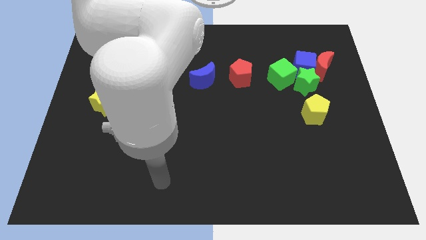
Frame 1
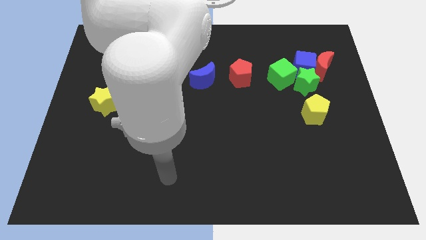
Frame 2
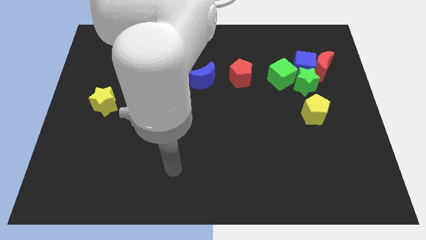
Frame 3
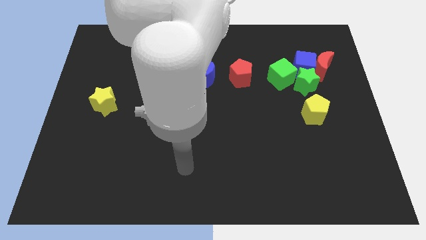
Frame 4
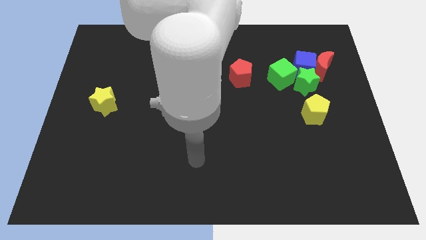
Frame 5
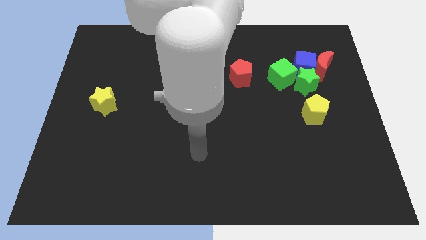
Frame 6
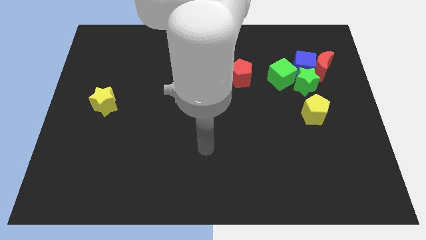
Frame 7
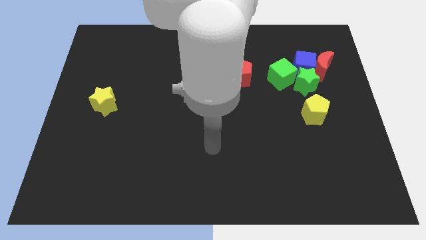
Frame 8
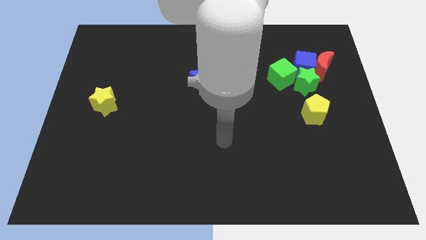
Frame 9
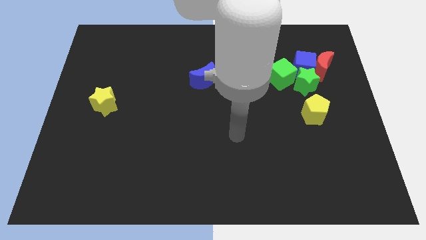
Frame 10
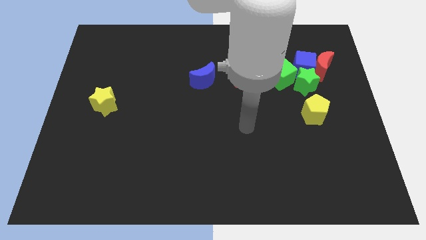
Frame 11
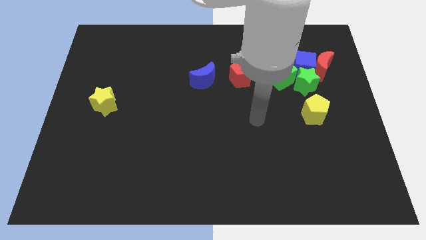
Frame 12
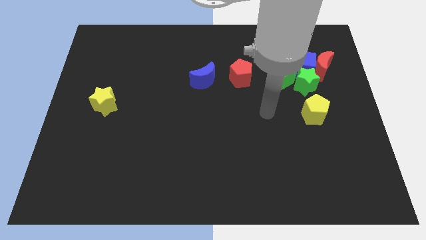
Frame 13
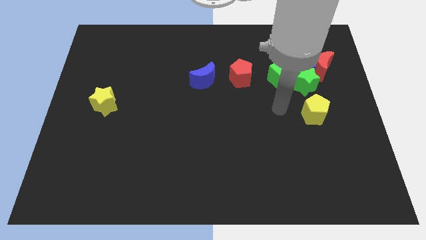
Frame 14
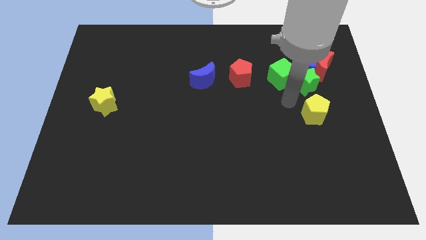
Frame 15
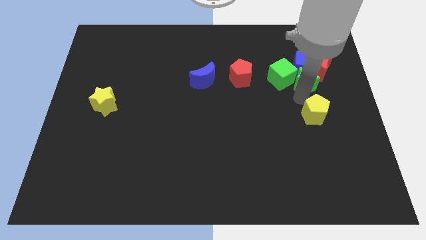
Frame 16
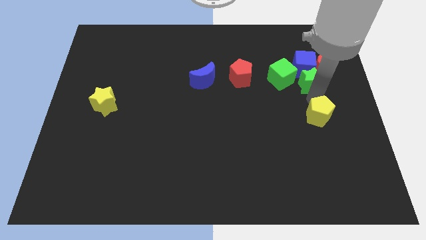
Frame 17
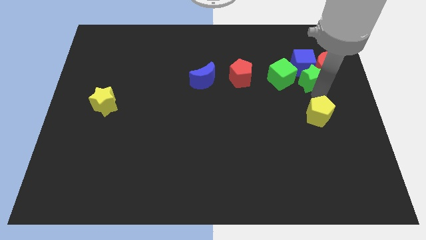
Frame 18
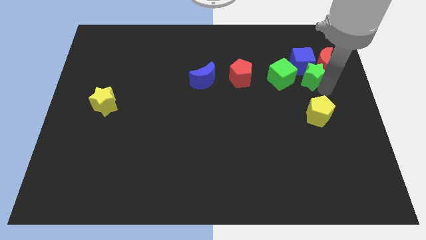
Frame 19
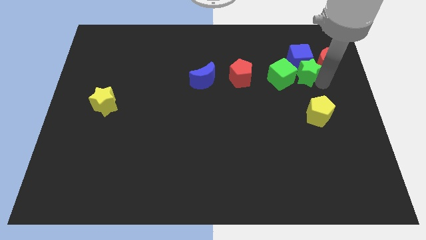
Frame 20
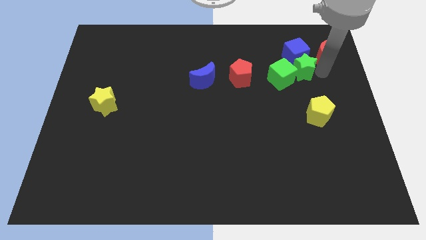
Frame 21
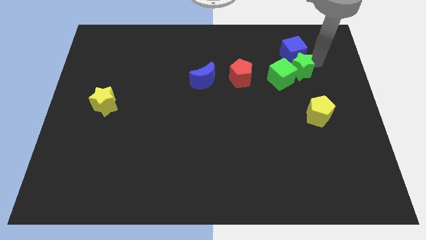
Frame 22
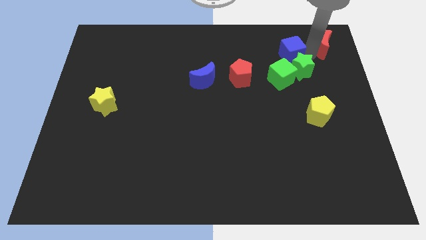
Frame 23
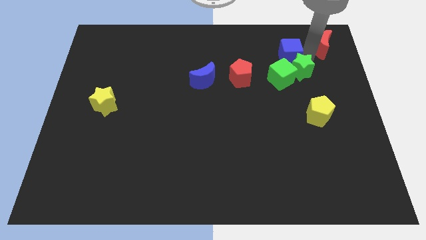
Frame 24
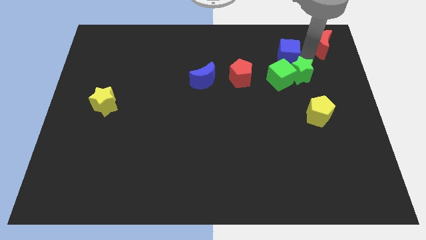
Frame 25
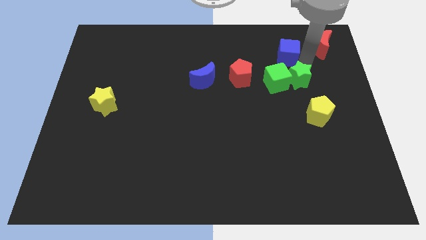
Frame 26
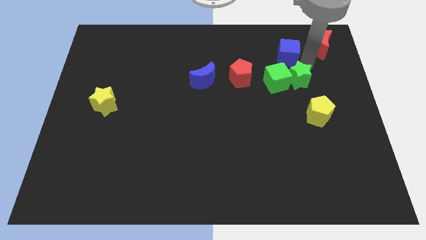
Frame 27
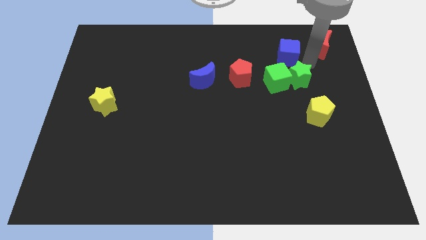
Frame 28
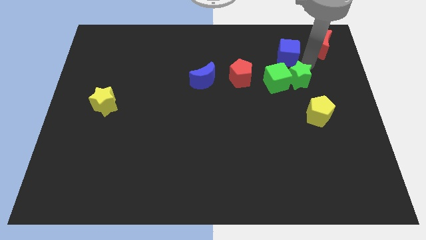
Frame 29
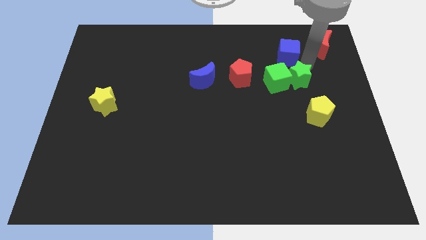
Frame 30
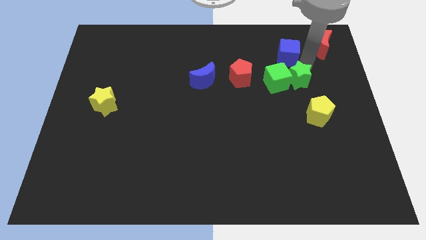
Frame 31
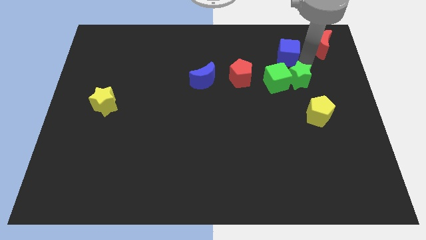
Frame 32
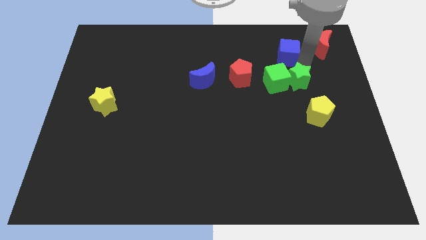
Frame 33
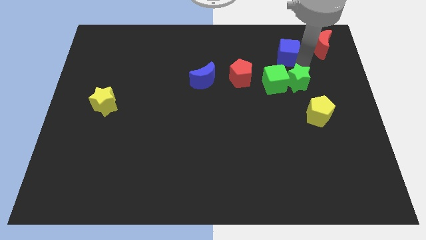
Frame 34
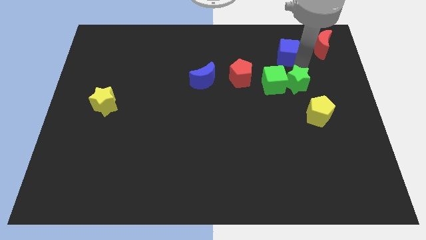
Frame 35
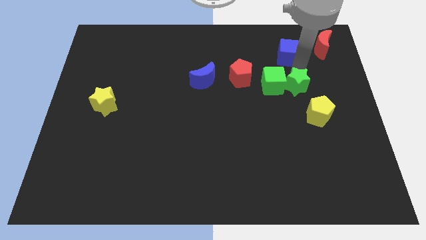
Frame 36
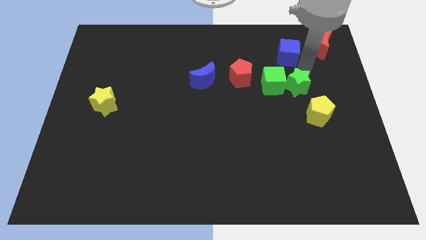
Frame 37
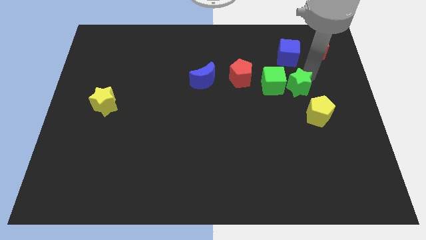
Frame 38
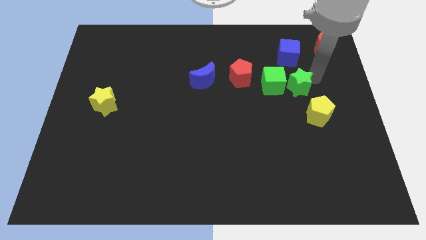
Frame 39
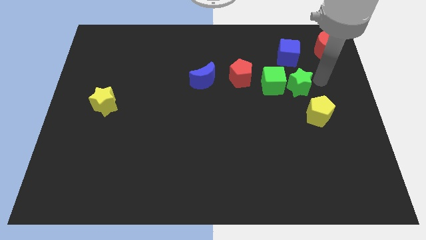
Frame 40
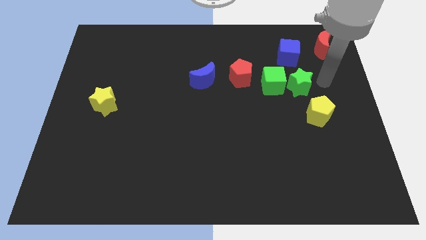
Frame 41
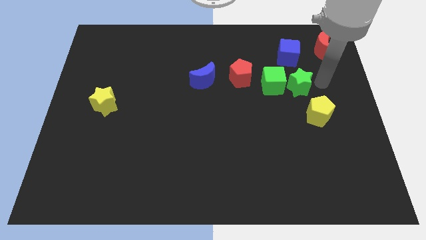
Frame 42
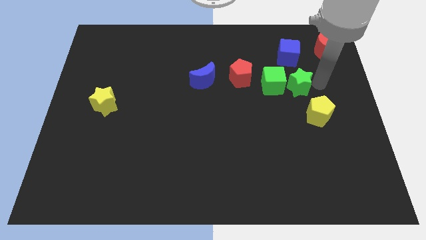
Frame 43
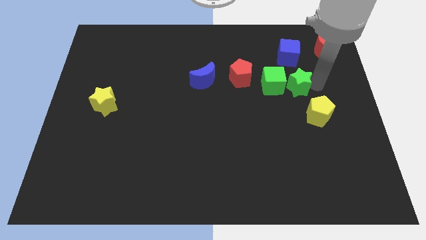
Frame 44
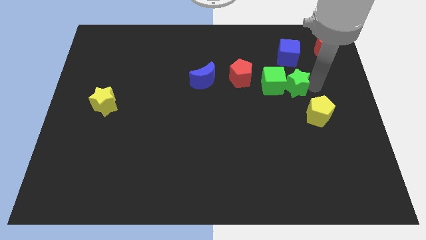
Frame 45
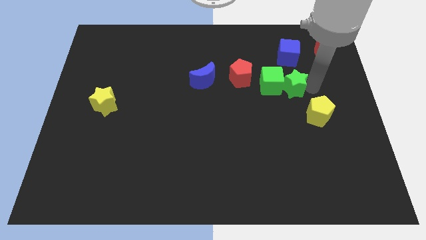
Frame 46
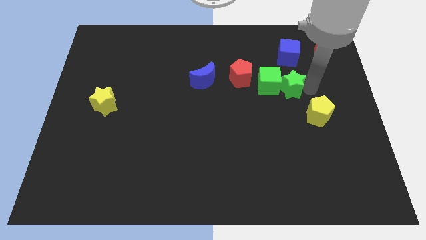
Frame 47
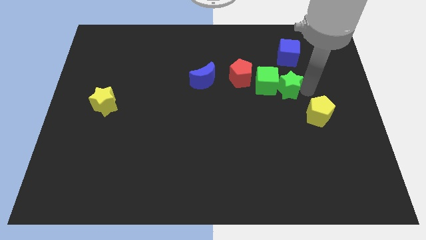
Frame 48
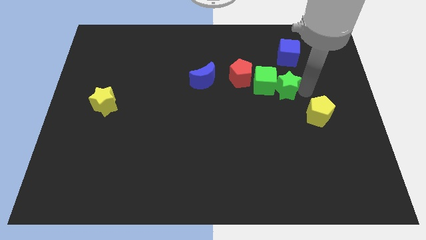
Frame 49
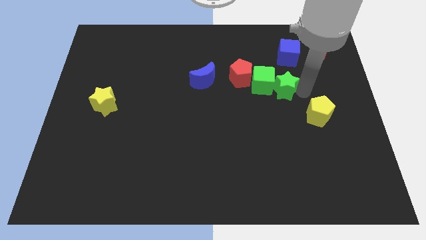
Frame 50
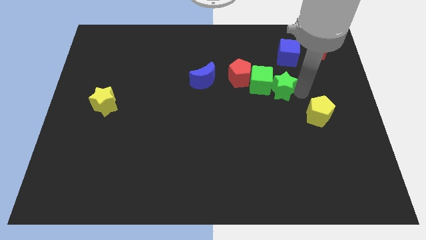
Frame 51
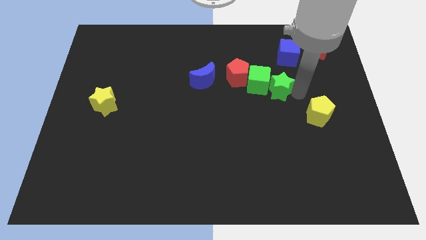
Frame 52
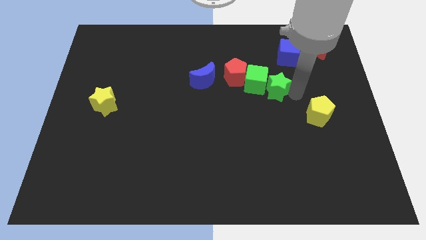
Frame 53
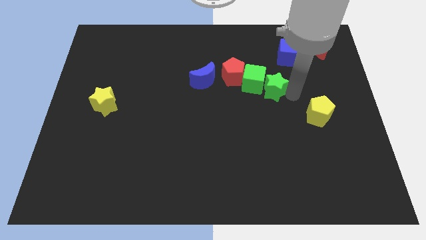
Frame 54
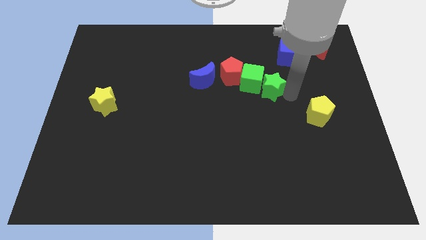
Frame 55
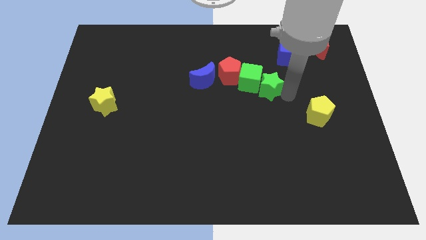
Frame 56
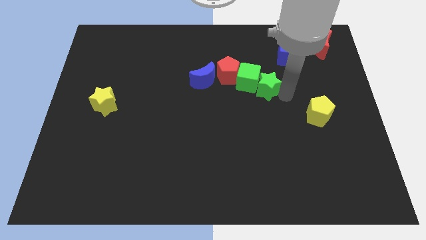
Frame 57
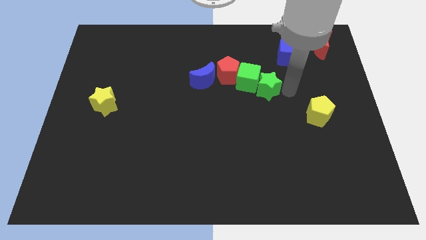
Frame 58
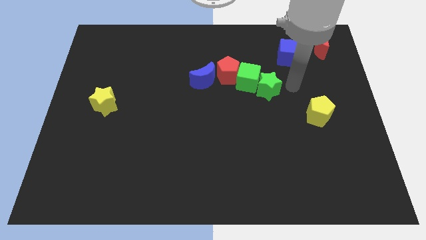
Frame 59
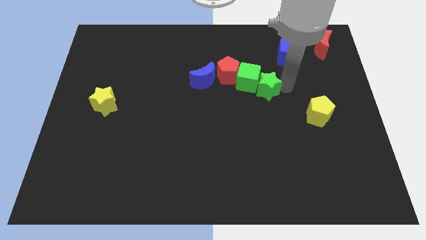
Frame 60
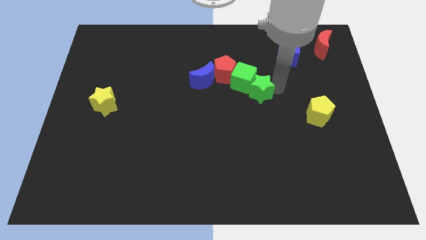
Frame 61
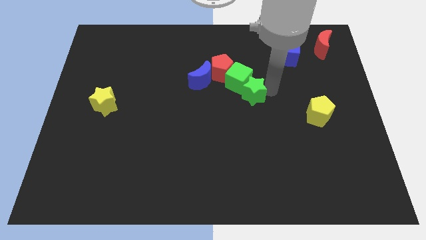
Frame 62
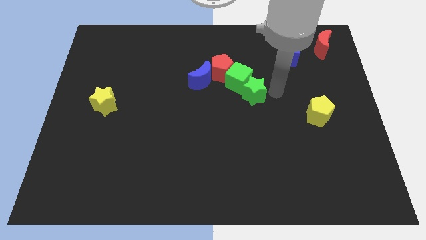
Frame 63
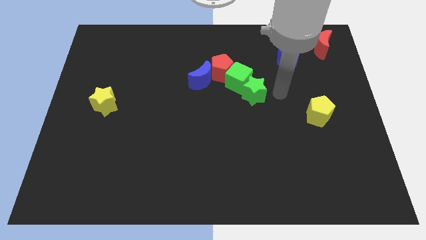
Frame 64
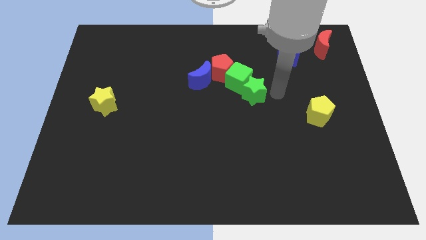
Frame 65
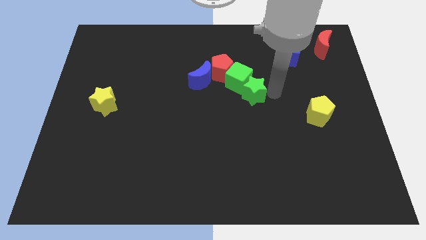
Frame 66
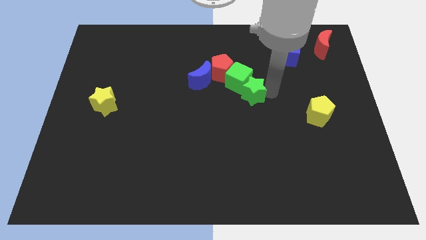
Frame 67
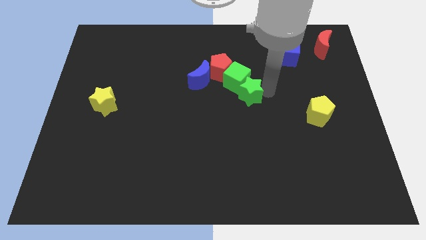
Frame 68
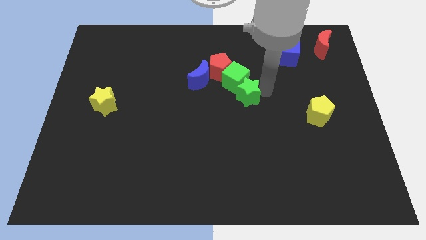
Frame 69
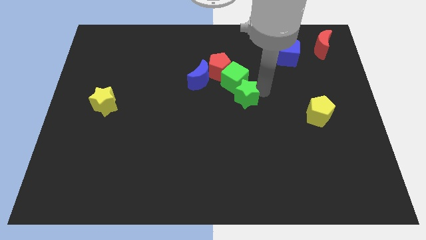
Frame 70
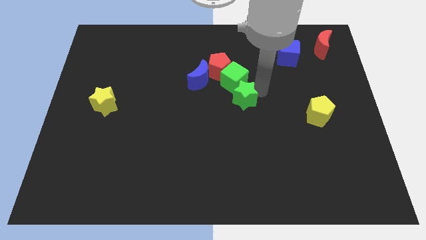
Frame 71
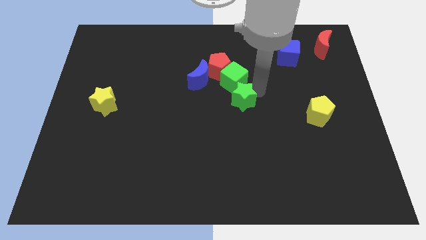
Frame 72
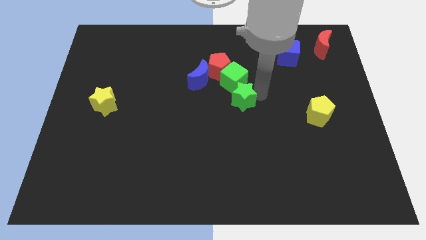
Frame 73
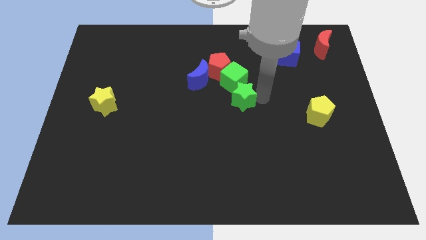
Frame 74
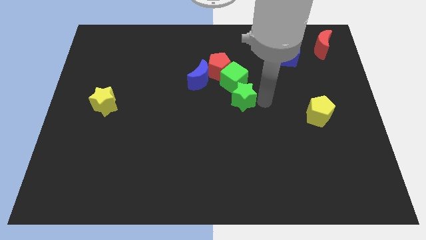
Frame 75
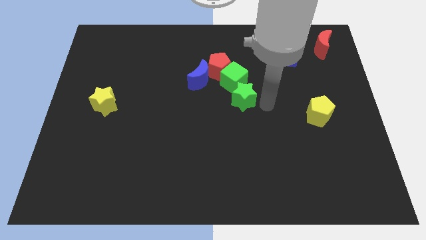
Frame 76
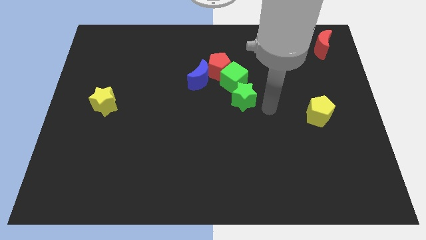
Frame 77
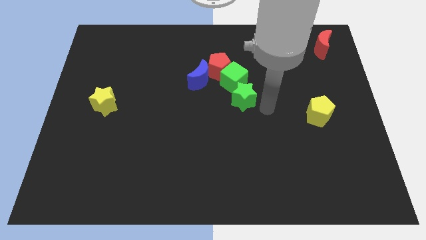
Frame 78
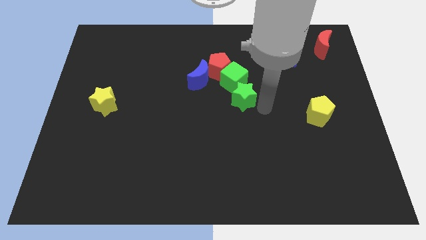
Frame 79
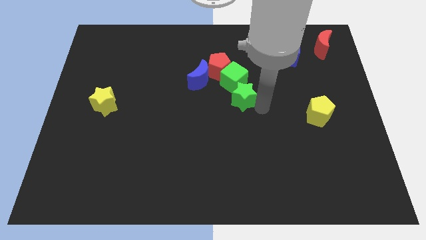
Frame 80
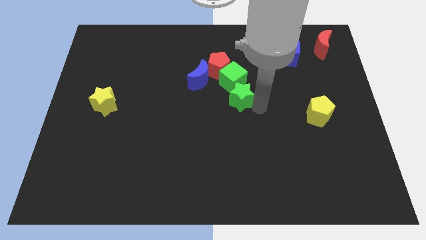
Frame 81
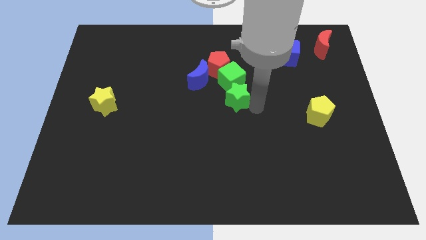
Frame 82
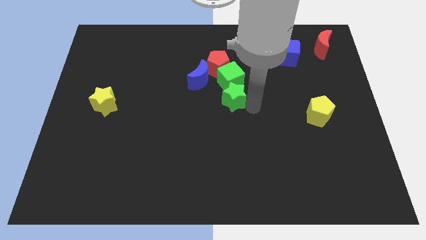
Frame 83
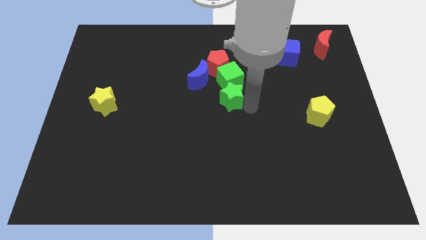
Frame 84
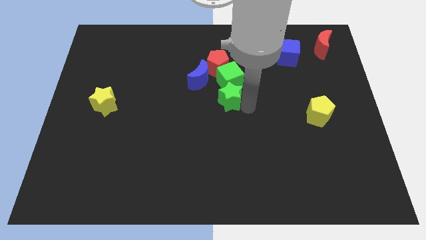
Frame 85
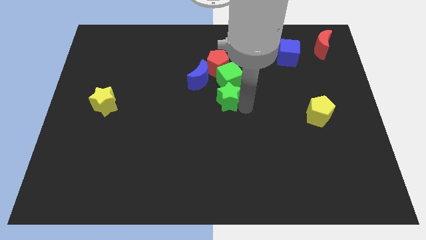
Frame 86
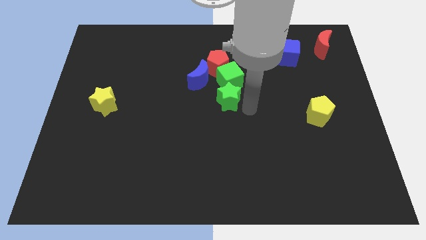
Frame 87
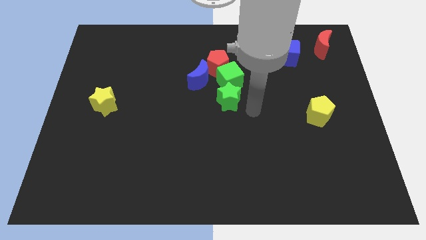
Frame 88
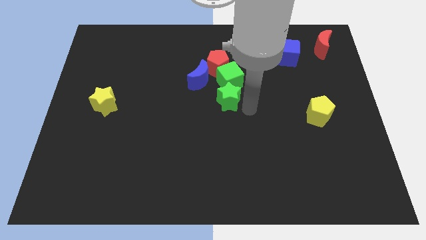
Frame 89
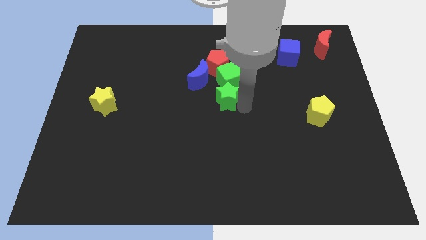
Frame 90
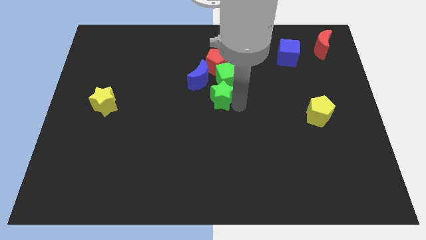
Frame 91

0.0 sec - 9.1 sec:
slide the green star left
